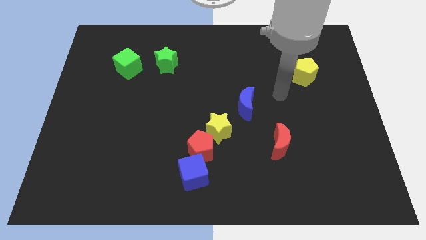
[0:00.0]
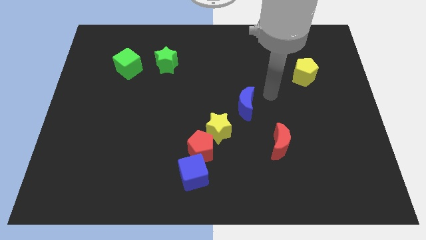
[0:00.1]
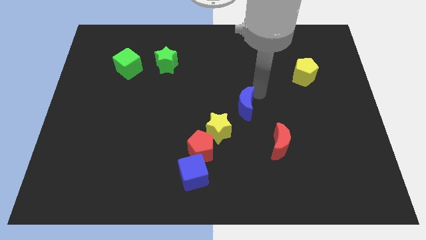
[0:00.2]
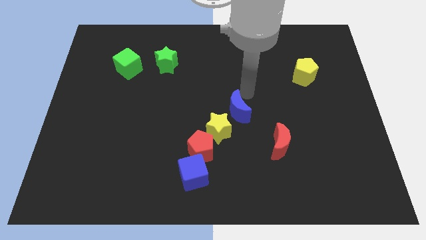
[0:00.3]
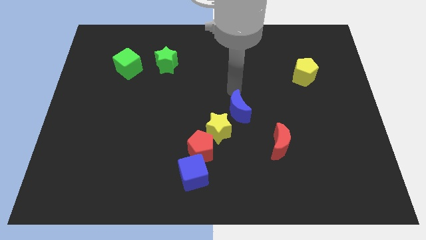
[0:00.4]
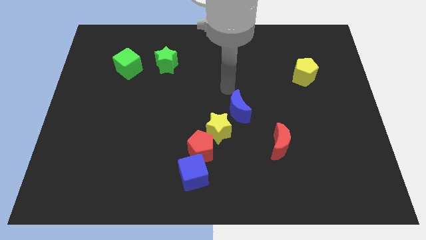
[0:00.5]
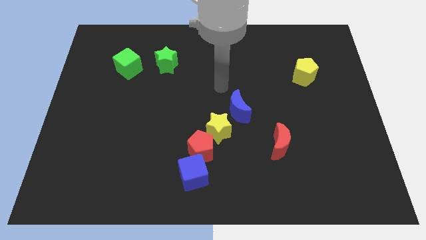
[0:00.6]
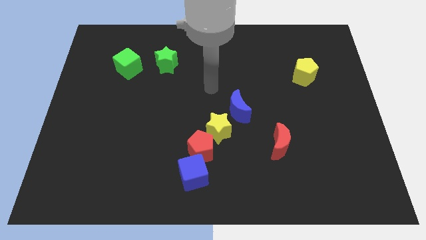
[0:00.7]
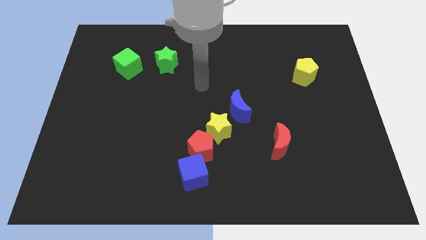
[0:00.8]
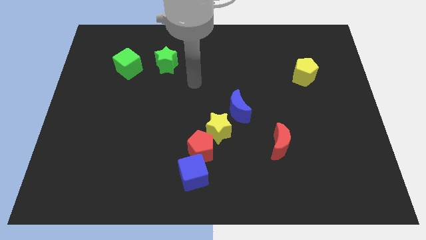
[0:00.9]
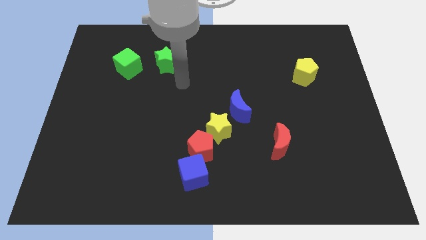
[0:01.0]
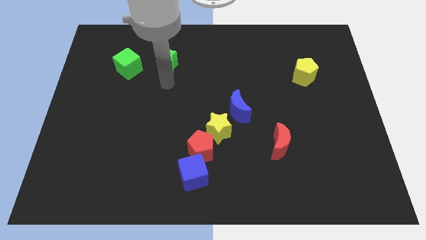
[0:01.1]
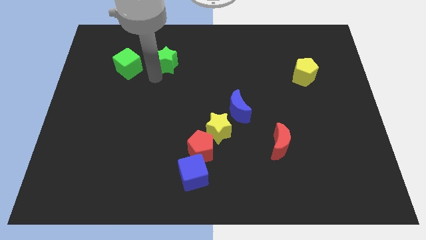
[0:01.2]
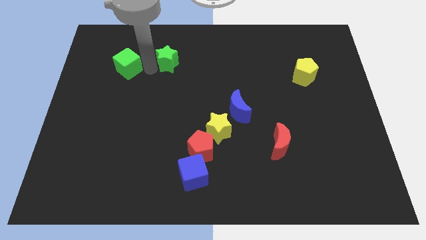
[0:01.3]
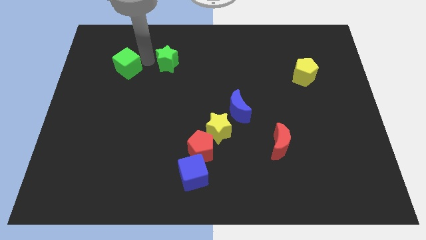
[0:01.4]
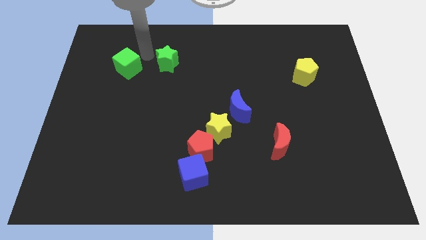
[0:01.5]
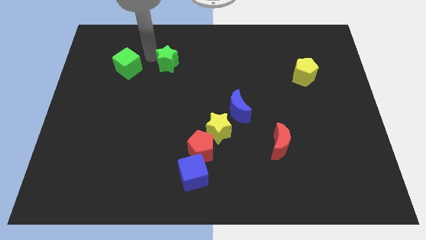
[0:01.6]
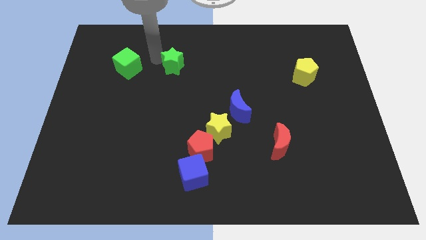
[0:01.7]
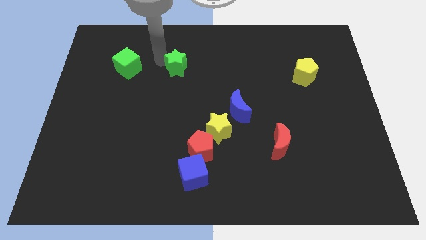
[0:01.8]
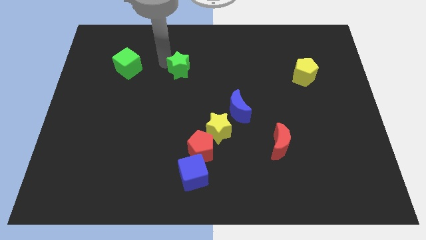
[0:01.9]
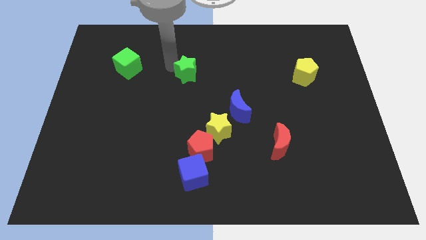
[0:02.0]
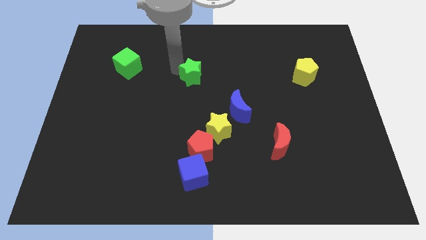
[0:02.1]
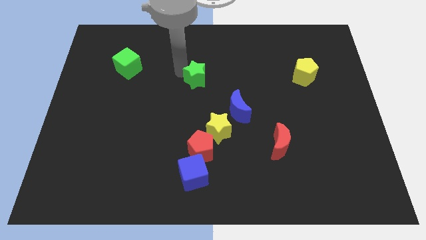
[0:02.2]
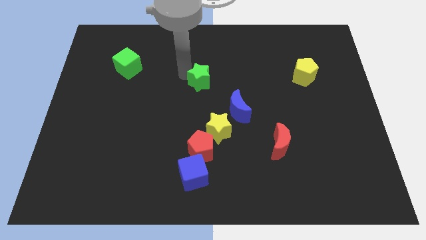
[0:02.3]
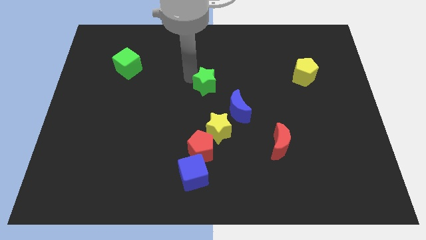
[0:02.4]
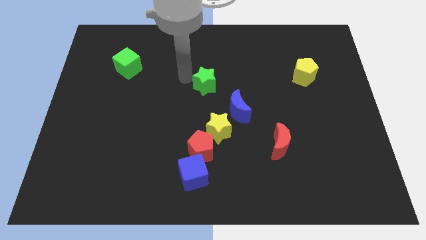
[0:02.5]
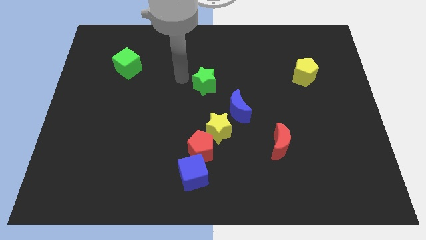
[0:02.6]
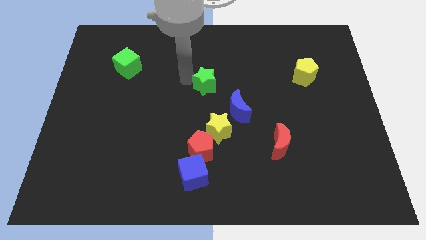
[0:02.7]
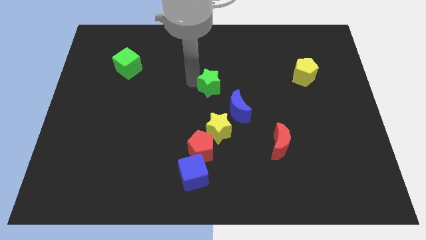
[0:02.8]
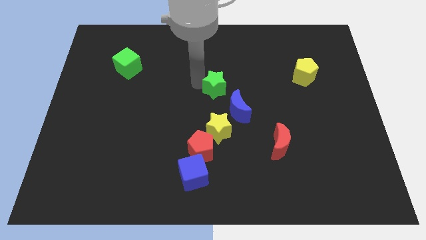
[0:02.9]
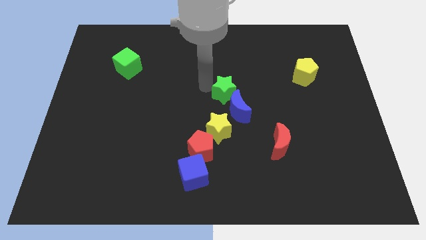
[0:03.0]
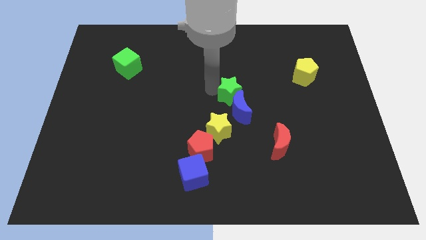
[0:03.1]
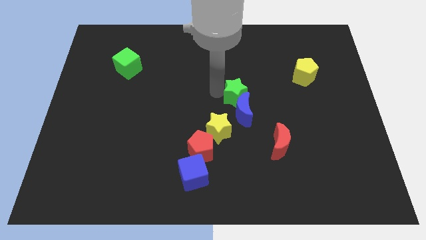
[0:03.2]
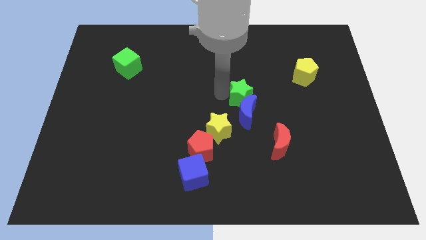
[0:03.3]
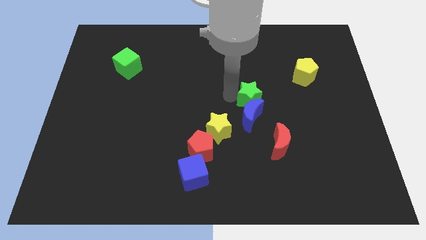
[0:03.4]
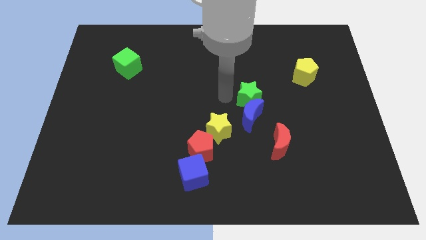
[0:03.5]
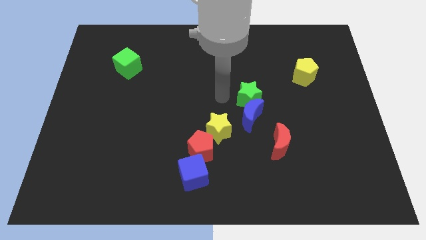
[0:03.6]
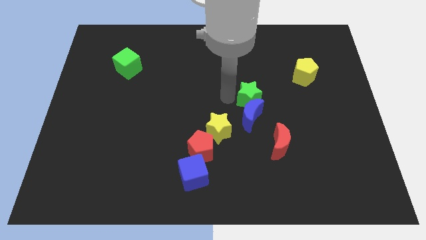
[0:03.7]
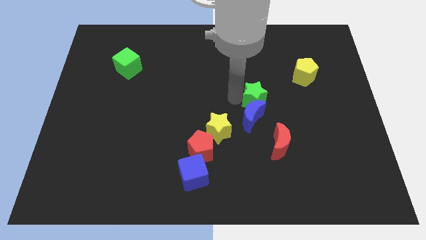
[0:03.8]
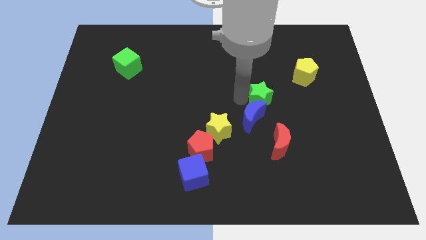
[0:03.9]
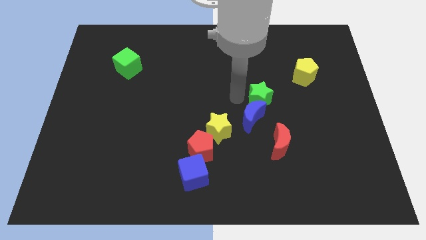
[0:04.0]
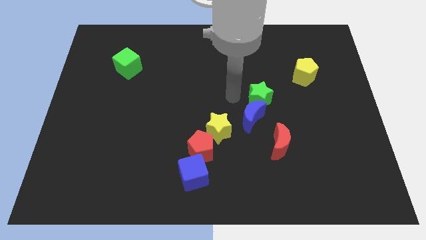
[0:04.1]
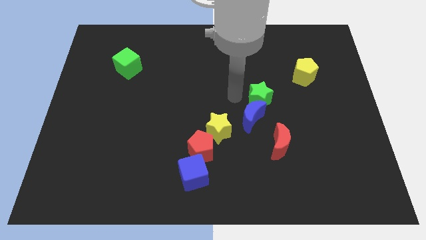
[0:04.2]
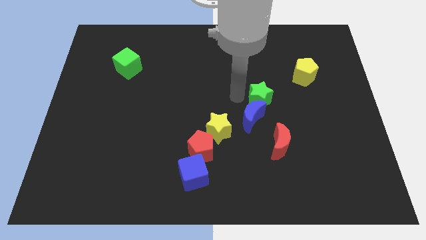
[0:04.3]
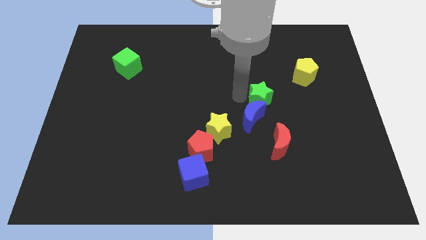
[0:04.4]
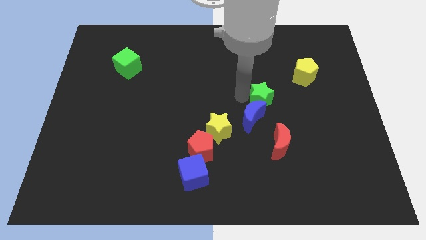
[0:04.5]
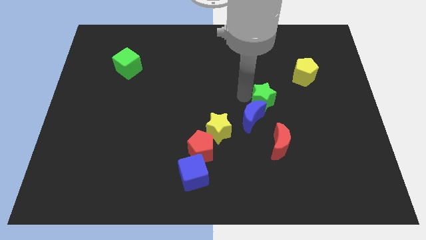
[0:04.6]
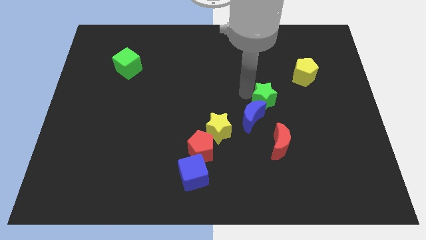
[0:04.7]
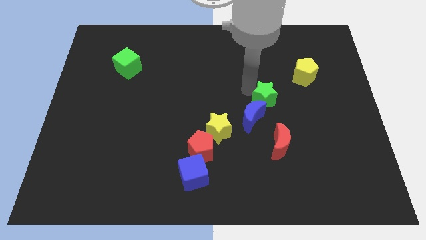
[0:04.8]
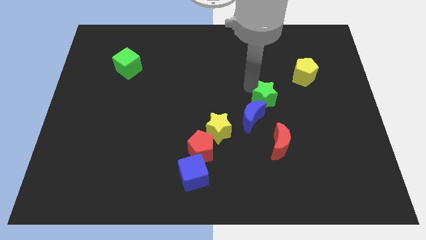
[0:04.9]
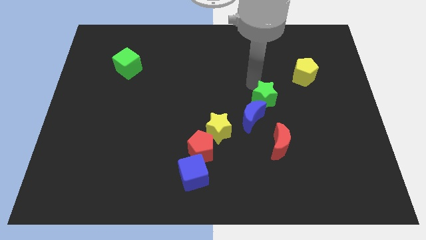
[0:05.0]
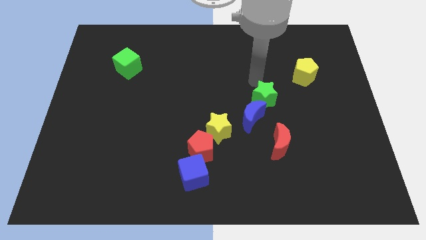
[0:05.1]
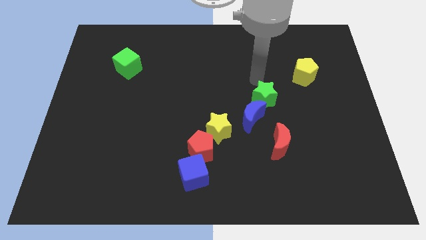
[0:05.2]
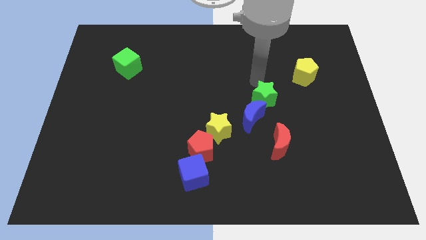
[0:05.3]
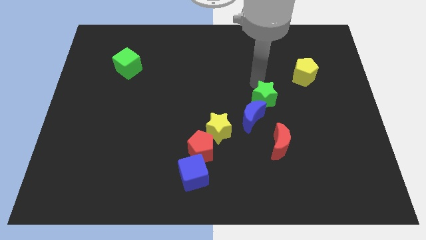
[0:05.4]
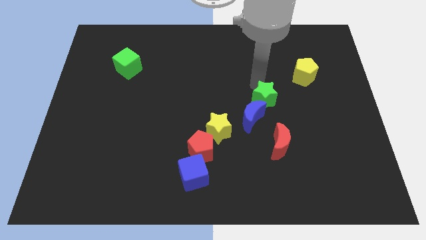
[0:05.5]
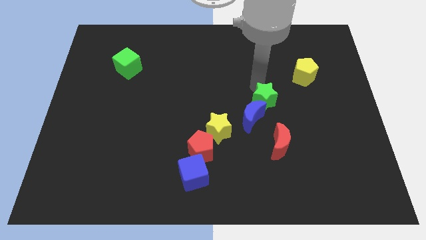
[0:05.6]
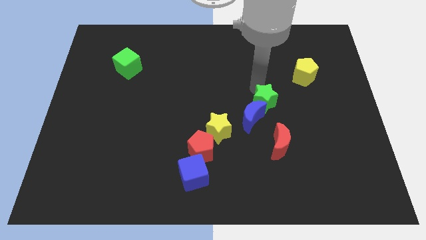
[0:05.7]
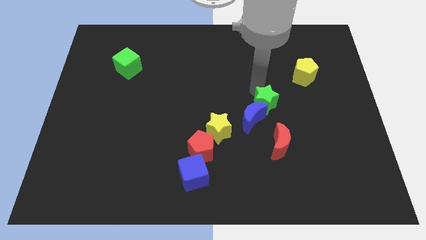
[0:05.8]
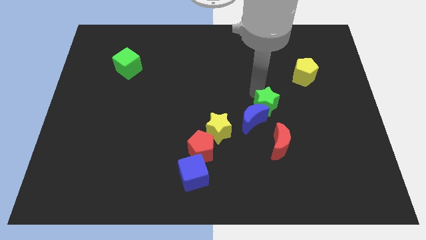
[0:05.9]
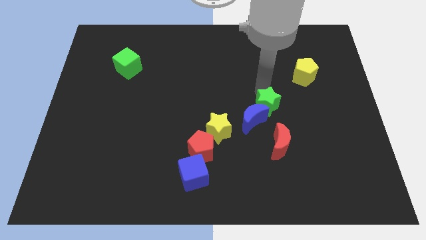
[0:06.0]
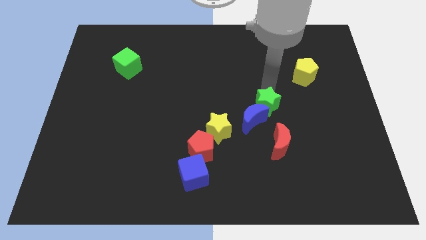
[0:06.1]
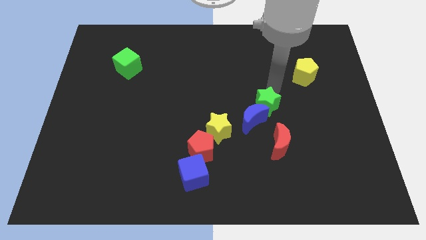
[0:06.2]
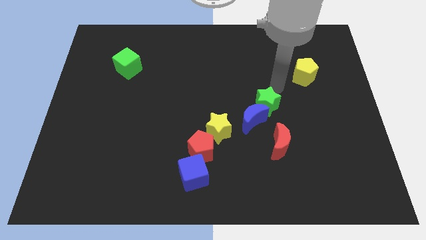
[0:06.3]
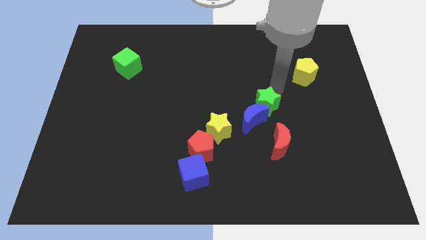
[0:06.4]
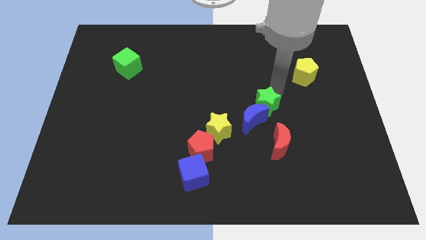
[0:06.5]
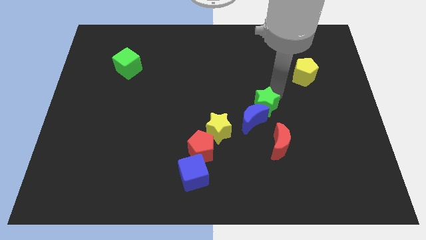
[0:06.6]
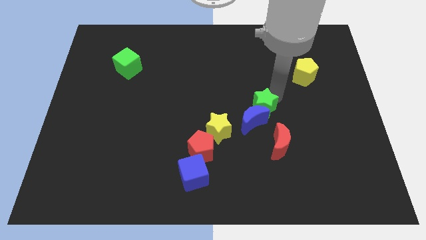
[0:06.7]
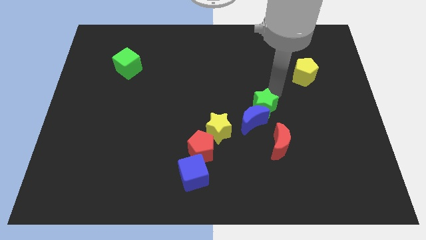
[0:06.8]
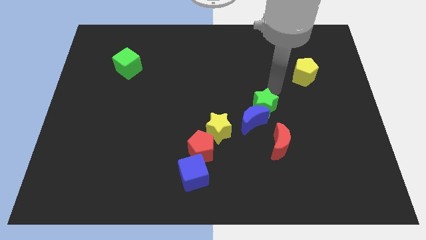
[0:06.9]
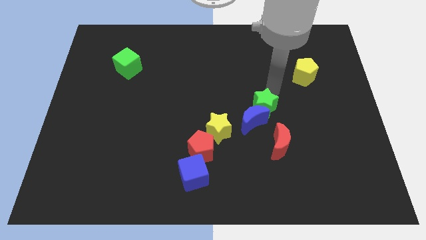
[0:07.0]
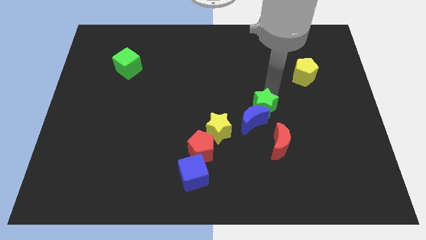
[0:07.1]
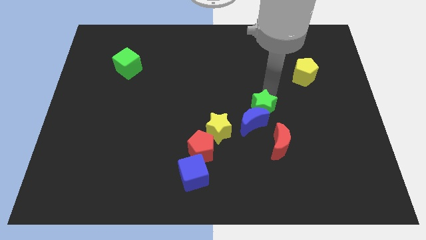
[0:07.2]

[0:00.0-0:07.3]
move the green star to the top left of the red moon

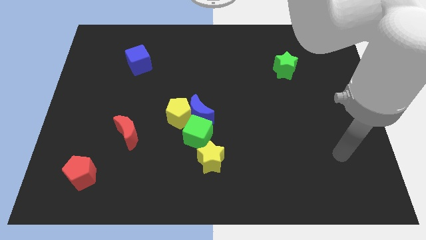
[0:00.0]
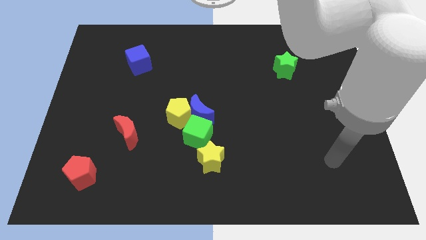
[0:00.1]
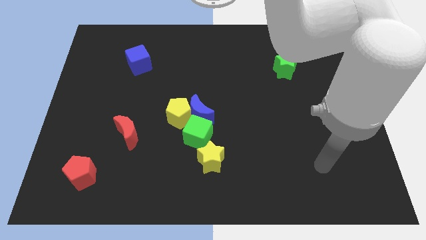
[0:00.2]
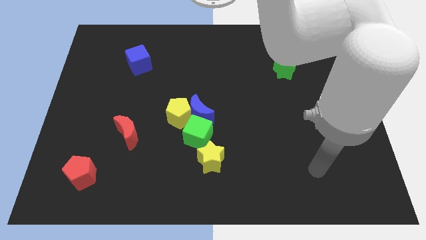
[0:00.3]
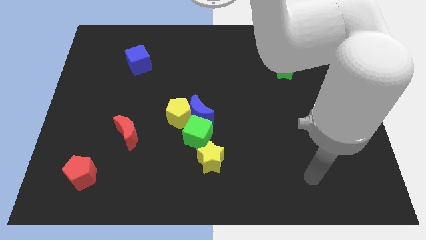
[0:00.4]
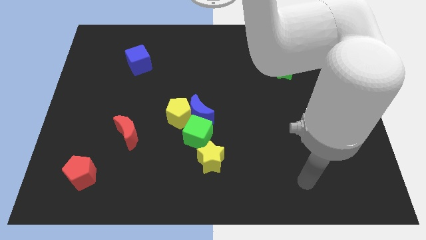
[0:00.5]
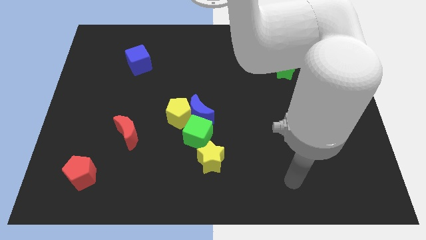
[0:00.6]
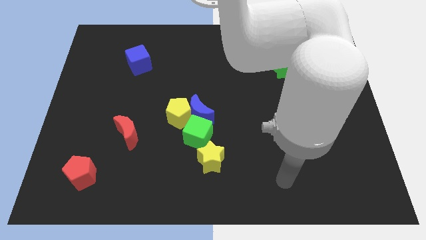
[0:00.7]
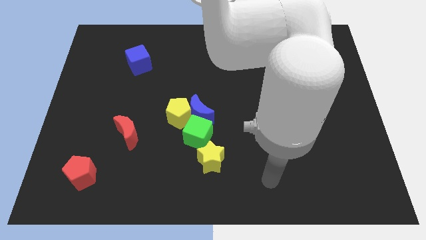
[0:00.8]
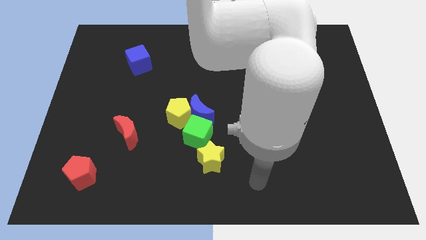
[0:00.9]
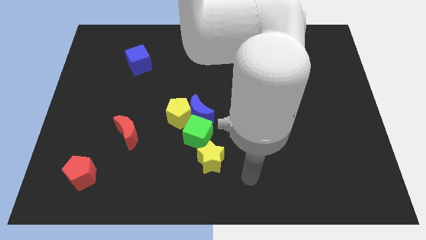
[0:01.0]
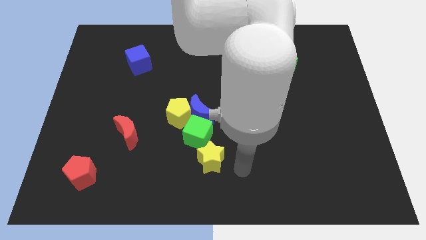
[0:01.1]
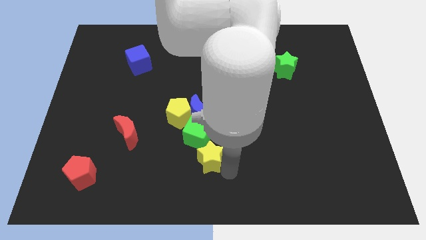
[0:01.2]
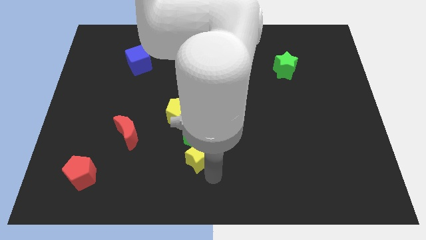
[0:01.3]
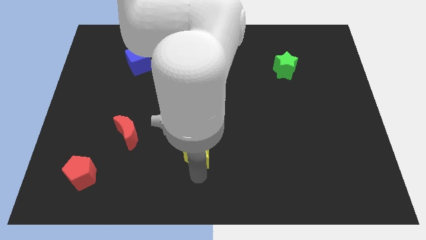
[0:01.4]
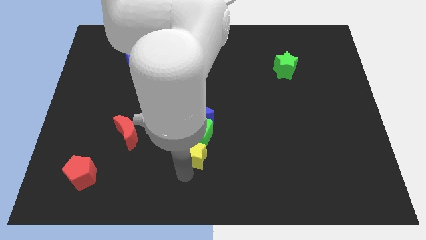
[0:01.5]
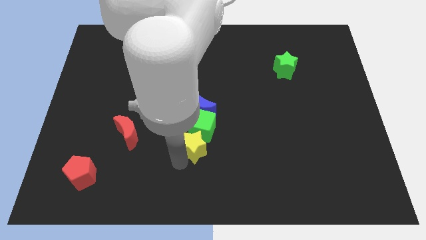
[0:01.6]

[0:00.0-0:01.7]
slide the green cube to the right of the yellow pentagon
